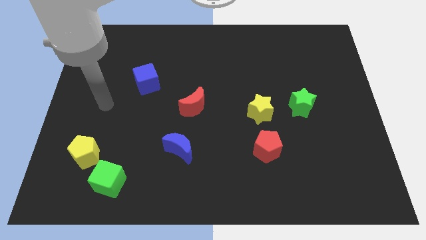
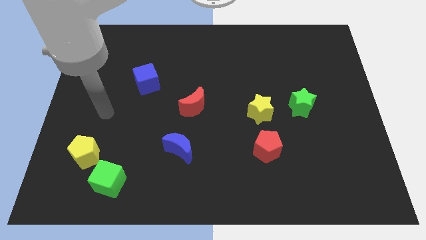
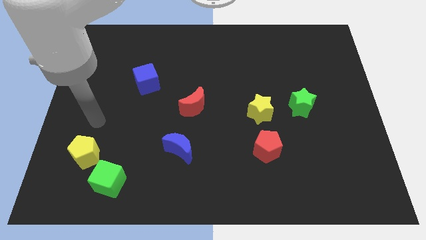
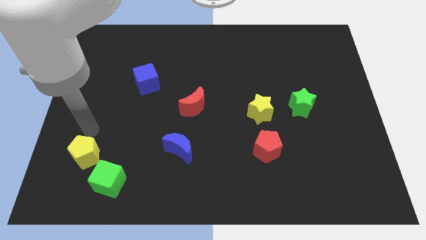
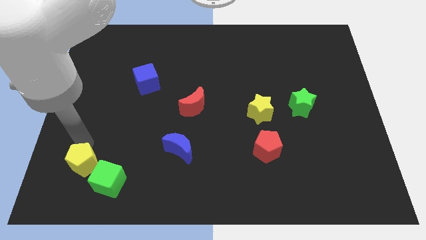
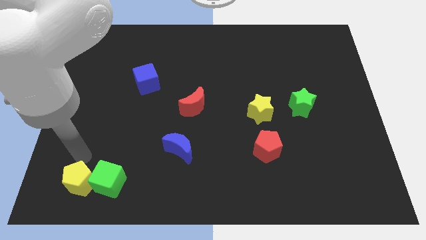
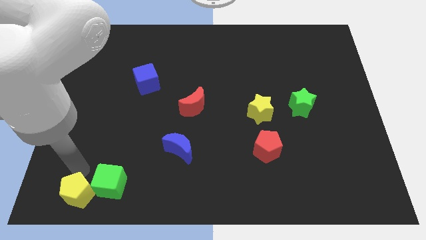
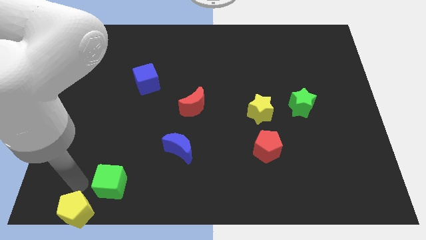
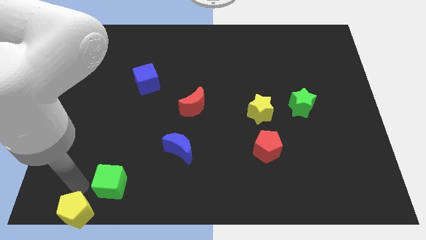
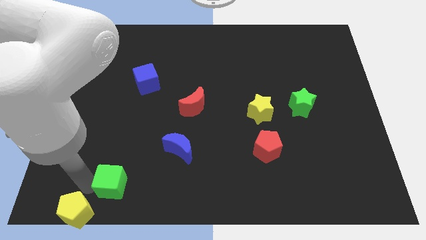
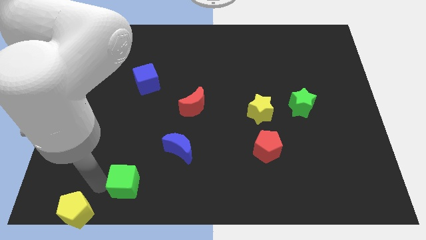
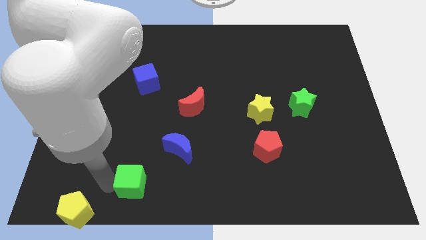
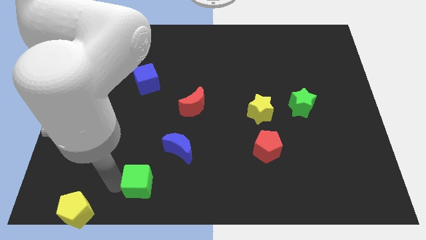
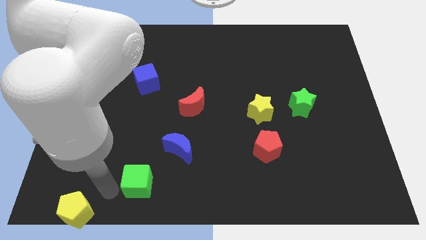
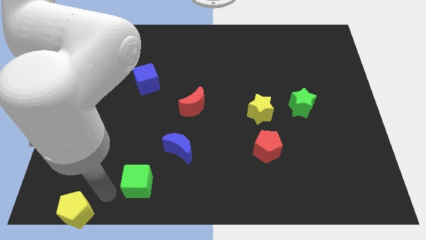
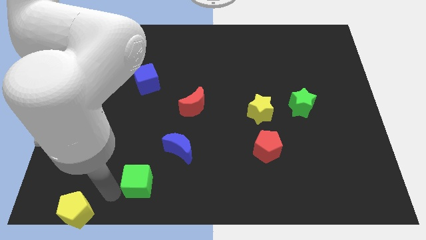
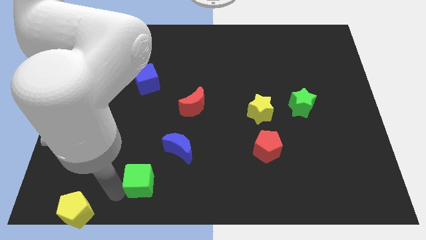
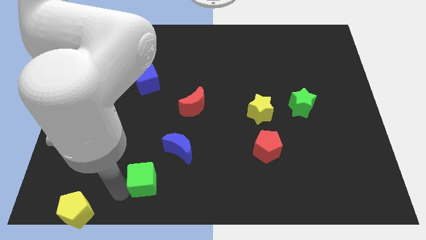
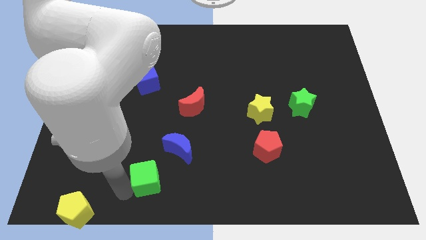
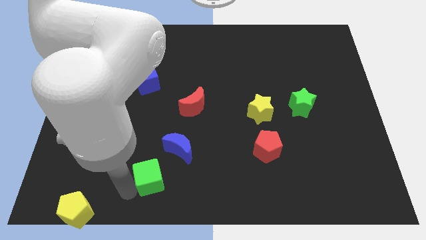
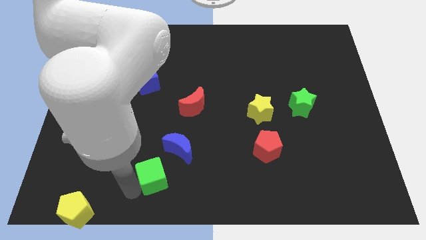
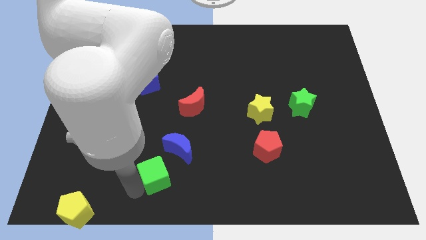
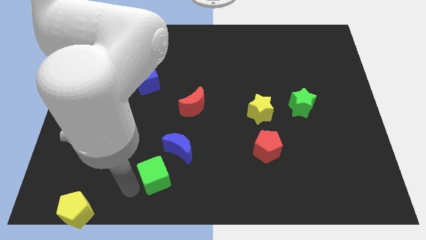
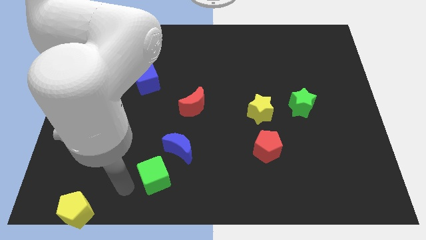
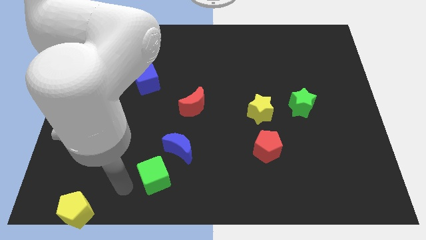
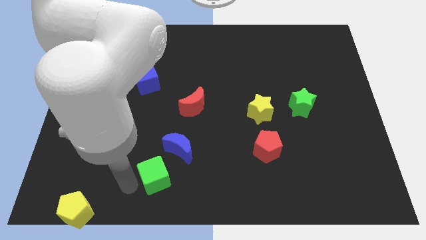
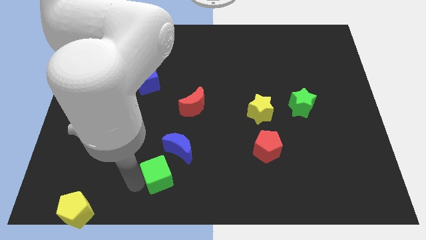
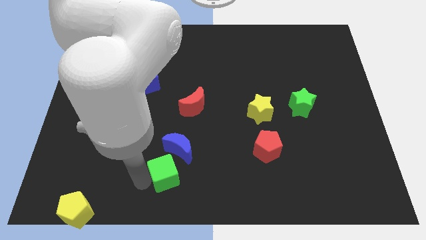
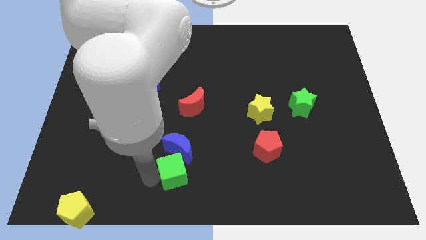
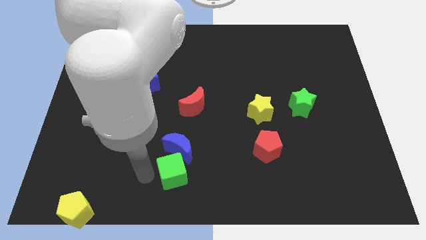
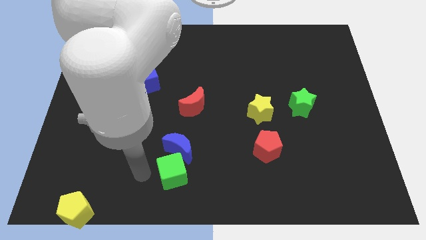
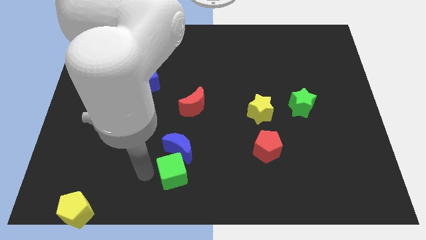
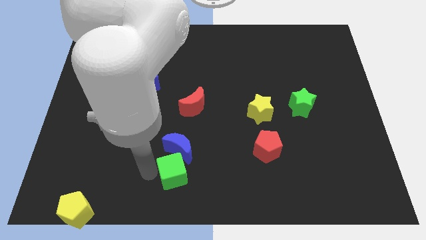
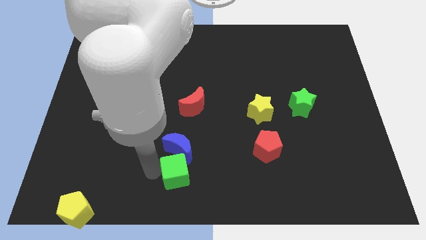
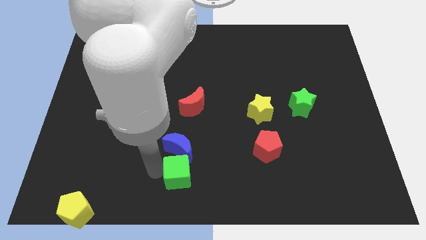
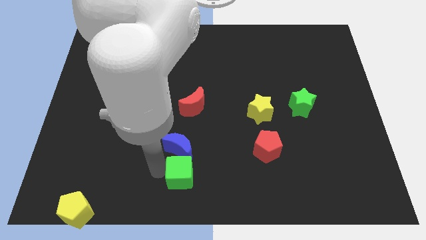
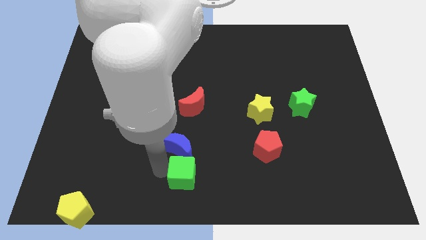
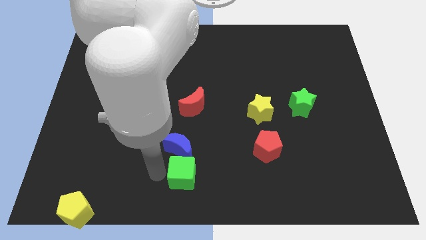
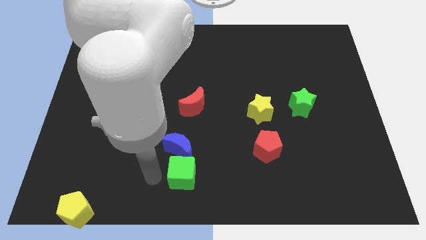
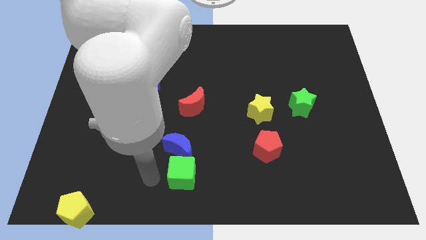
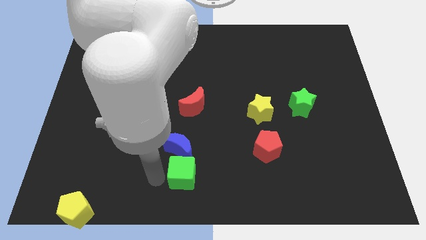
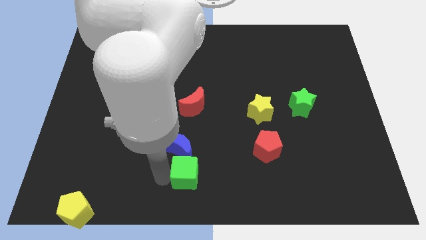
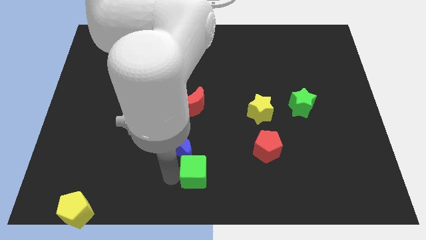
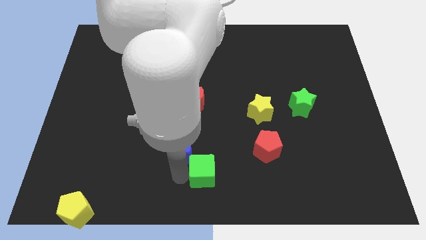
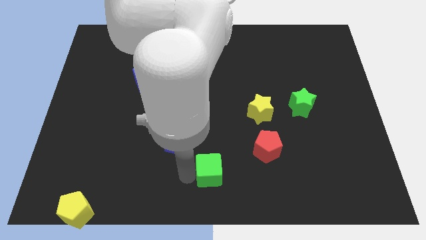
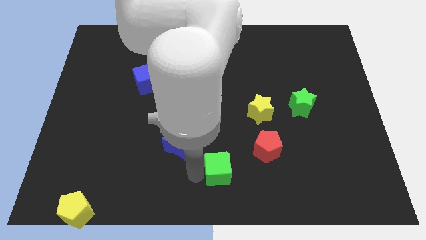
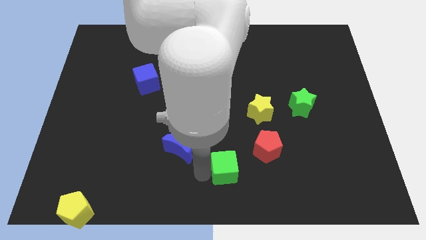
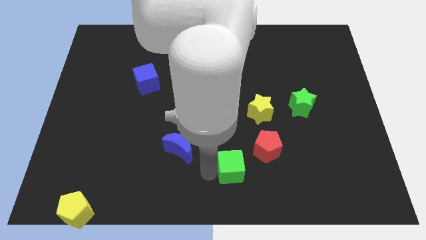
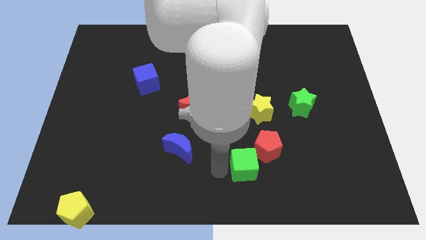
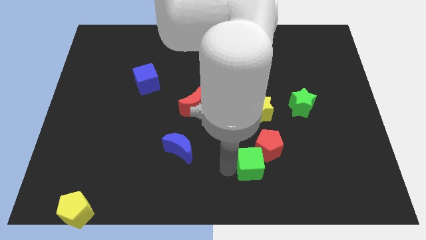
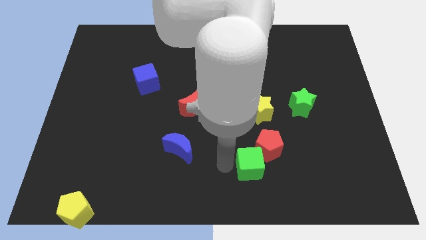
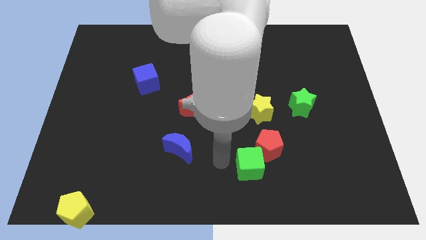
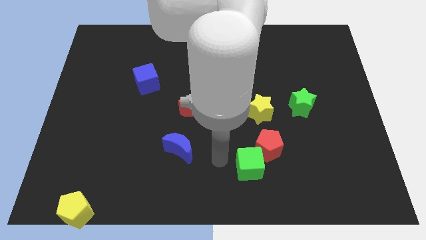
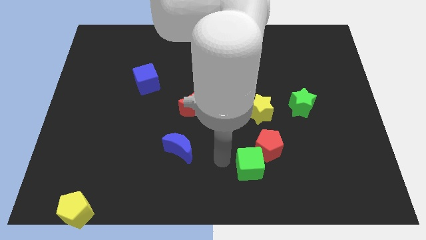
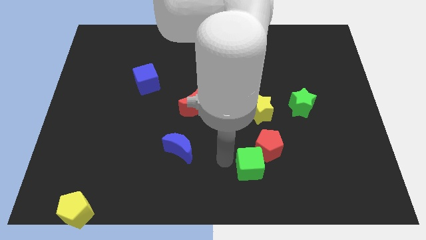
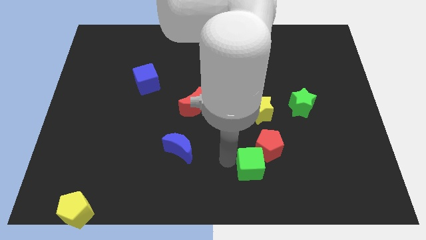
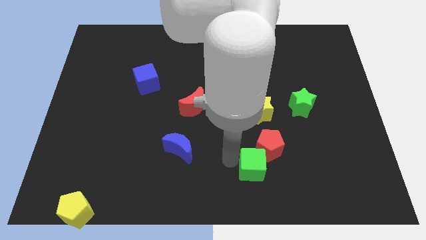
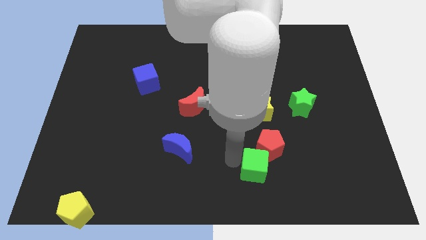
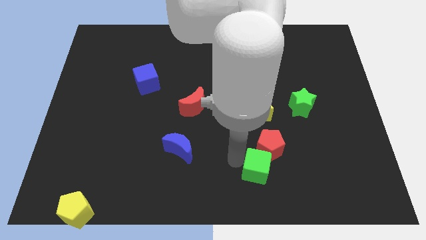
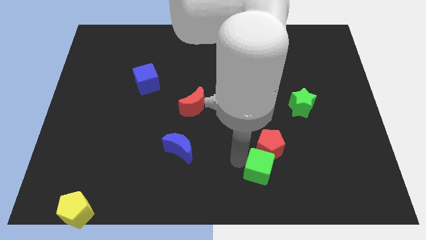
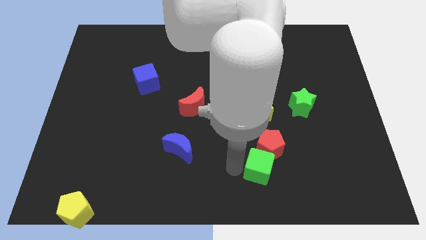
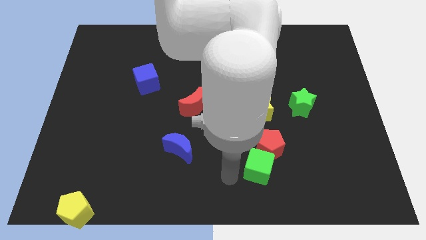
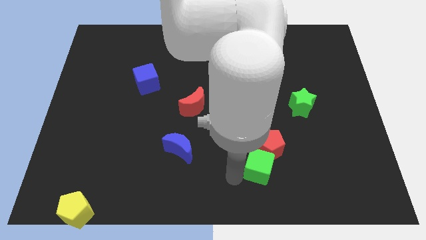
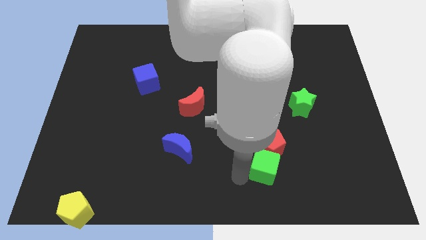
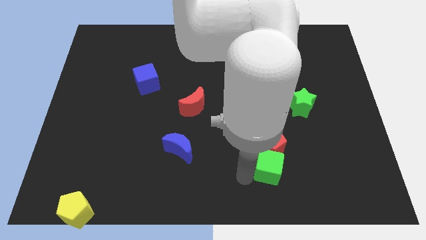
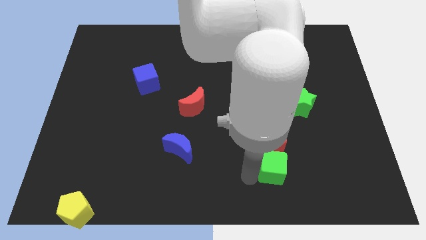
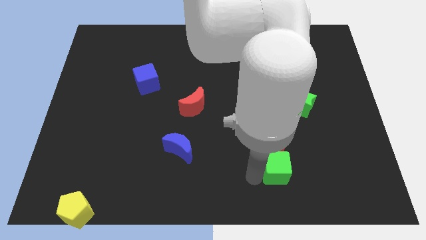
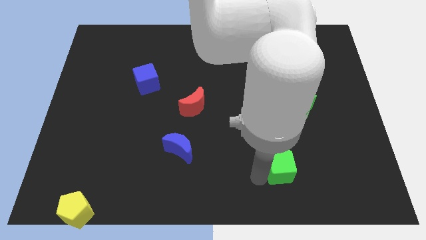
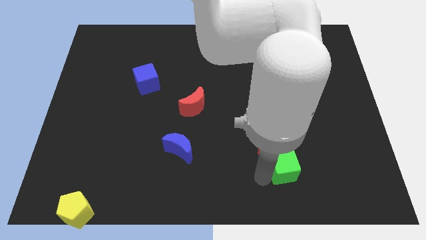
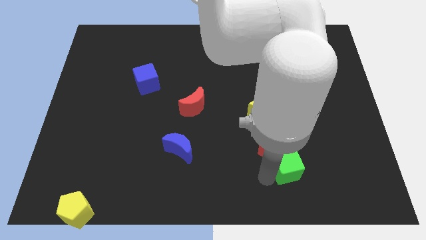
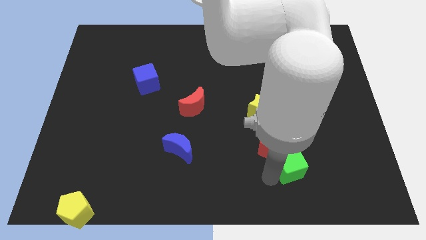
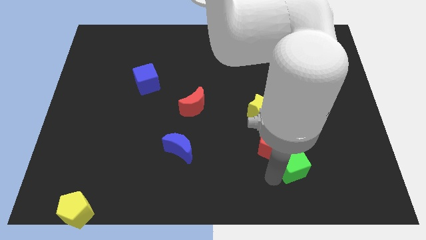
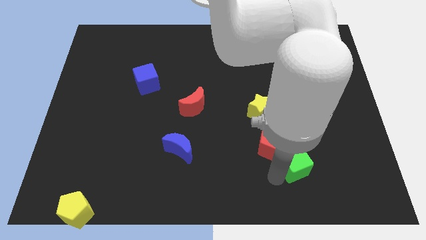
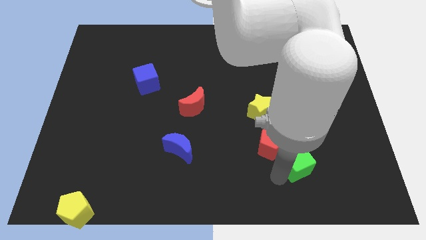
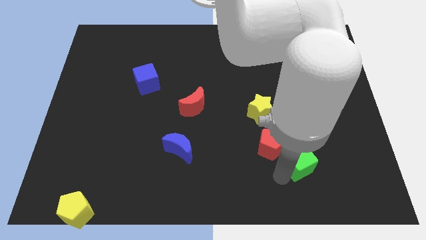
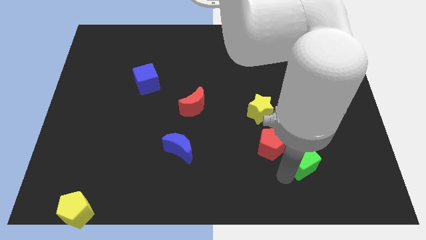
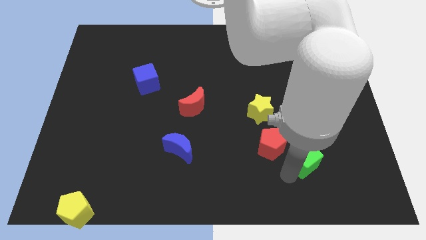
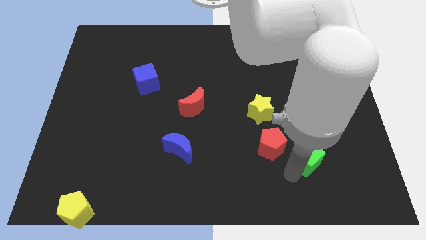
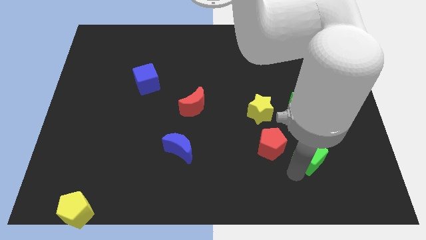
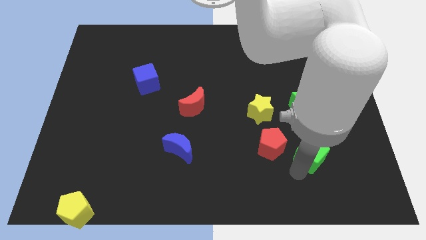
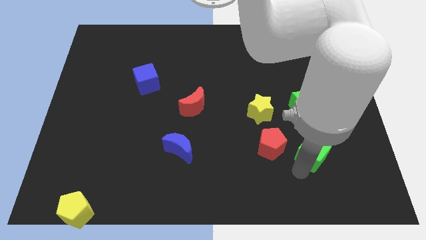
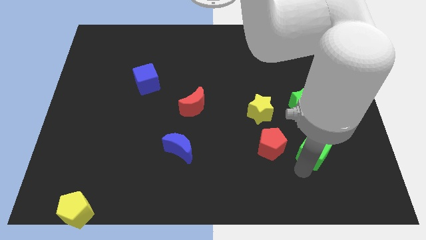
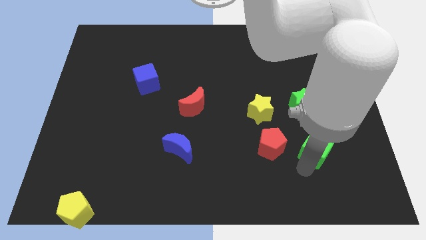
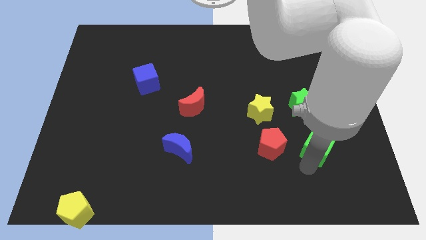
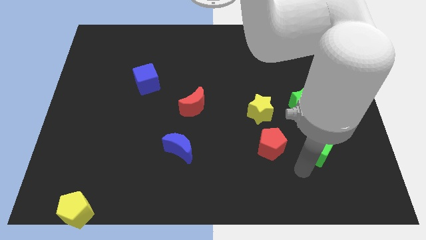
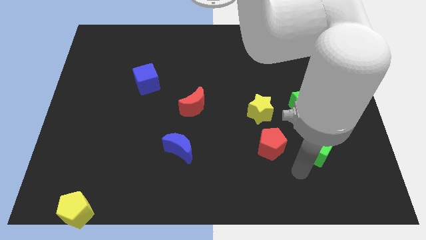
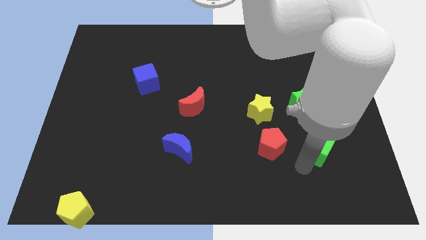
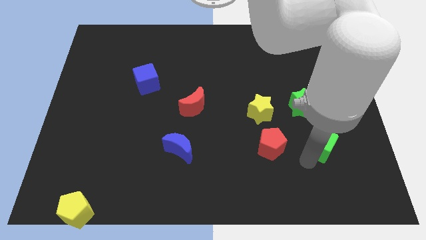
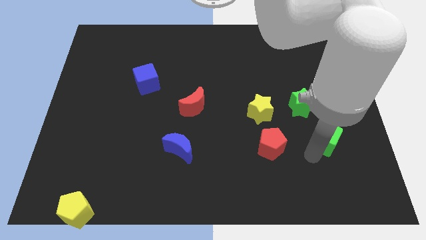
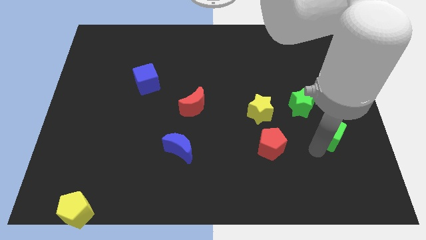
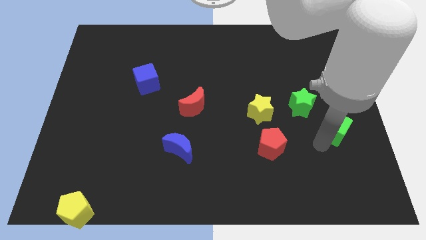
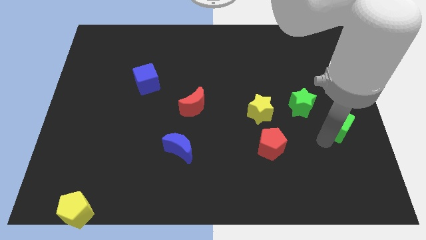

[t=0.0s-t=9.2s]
put the green cube to the right side
